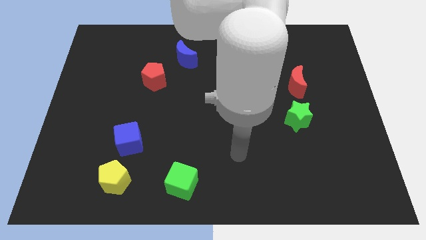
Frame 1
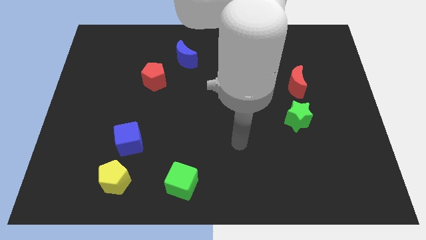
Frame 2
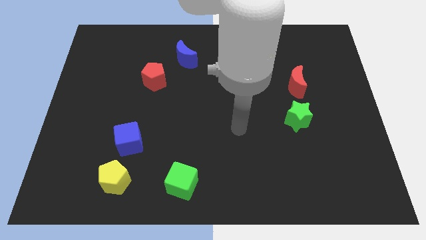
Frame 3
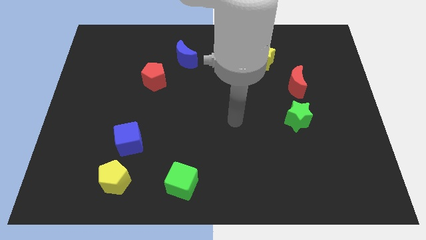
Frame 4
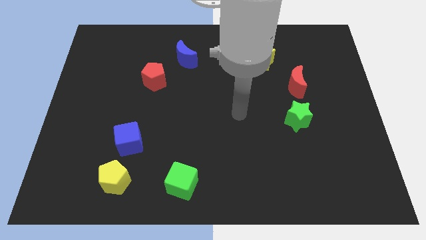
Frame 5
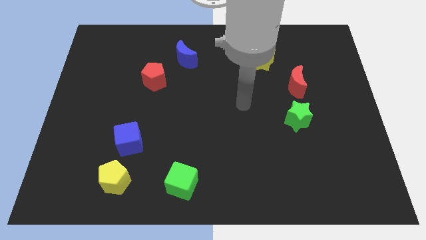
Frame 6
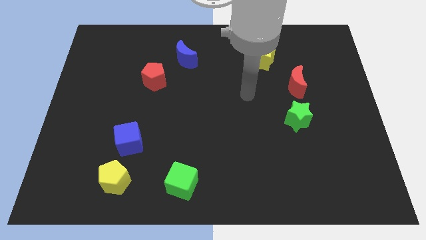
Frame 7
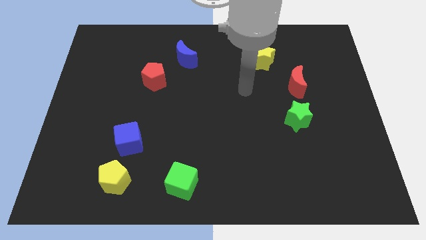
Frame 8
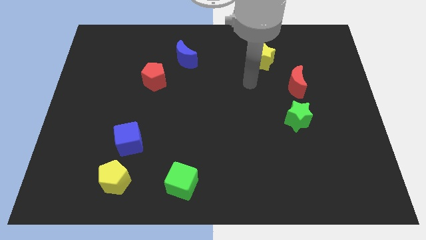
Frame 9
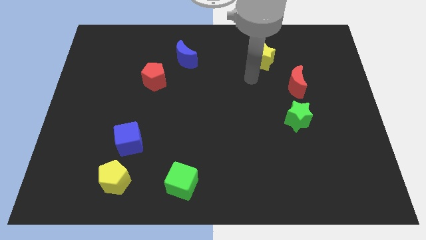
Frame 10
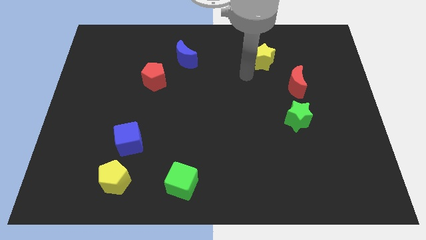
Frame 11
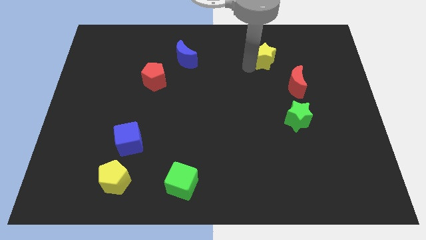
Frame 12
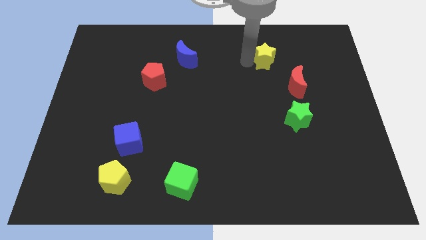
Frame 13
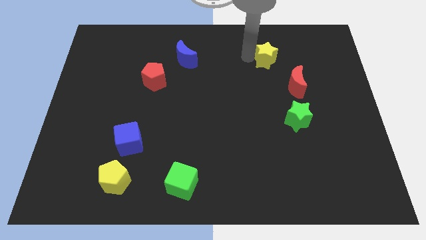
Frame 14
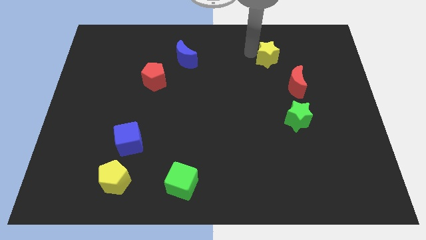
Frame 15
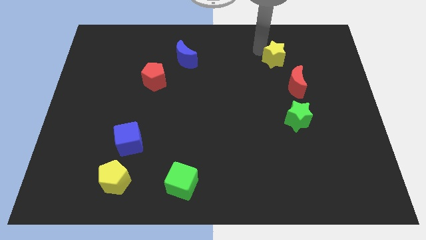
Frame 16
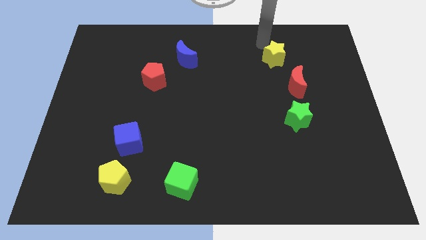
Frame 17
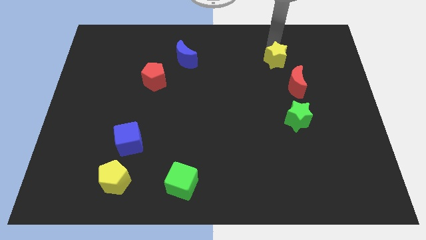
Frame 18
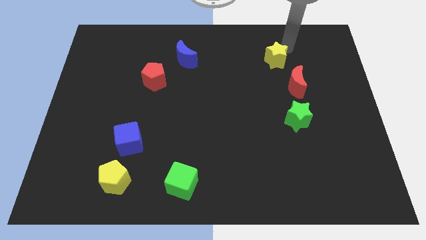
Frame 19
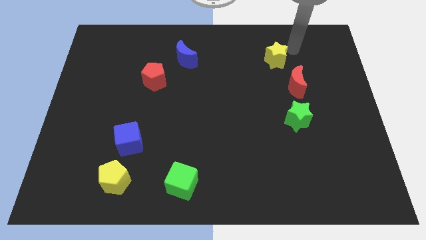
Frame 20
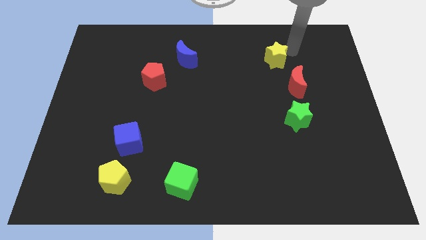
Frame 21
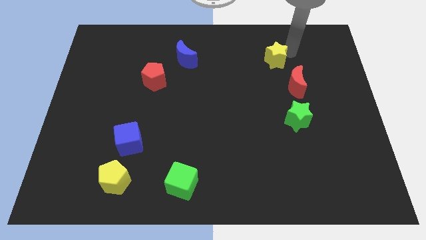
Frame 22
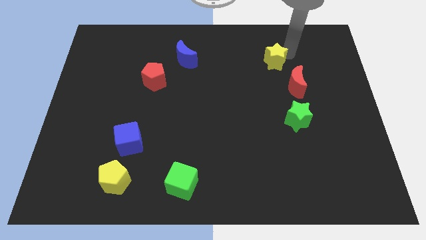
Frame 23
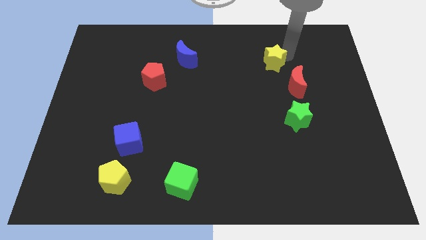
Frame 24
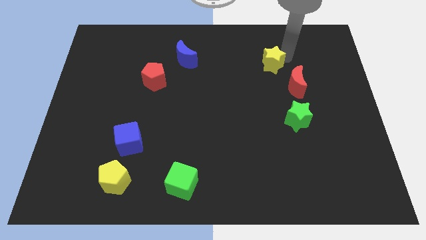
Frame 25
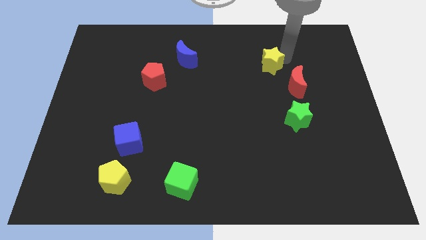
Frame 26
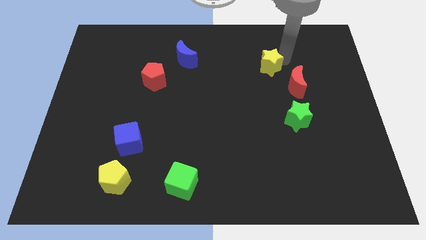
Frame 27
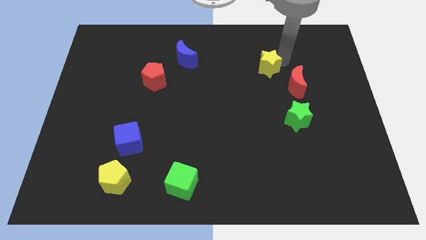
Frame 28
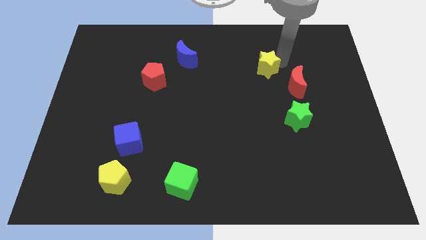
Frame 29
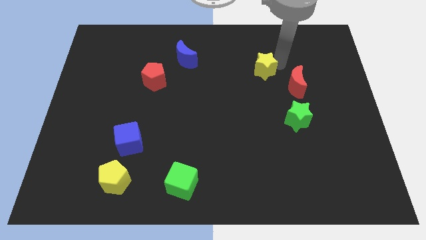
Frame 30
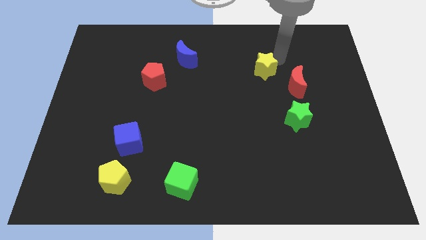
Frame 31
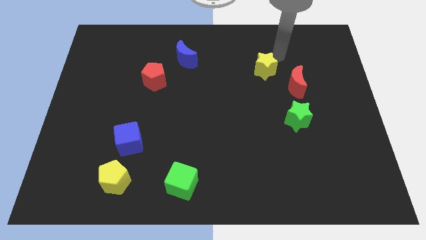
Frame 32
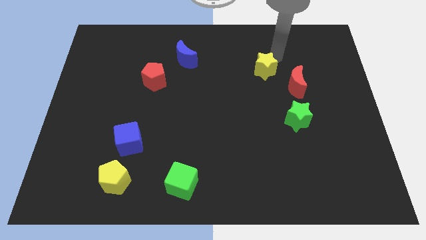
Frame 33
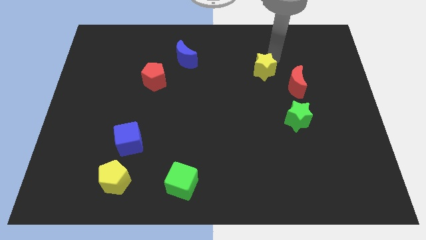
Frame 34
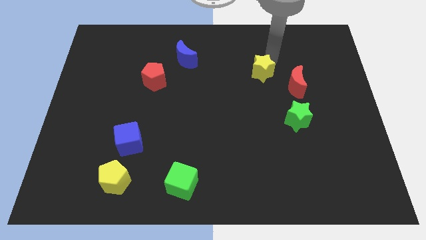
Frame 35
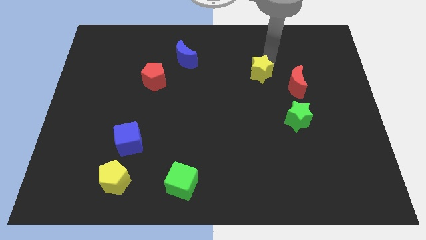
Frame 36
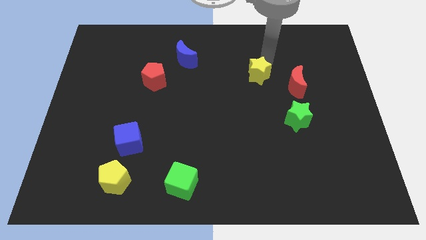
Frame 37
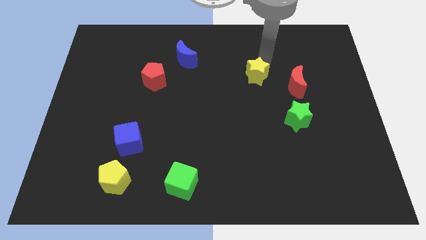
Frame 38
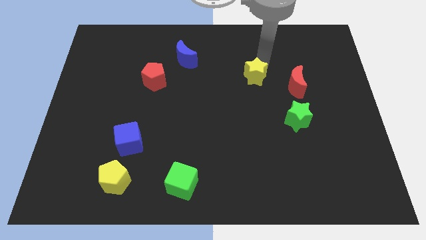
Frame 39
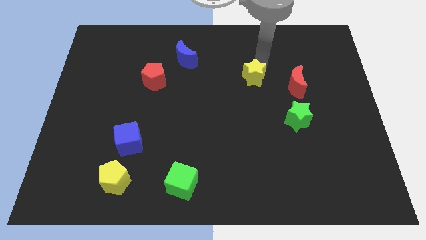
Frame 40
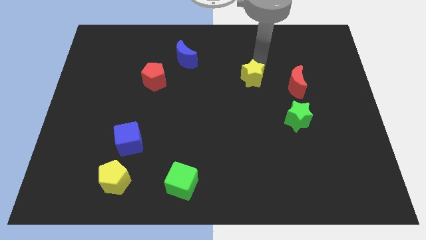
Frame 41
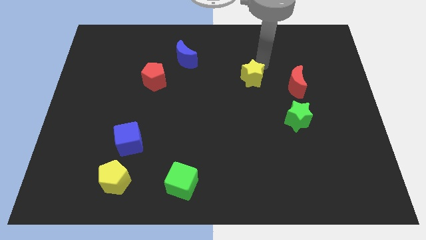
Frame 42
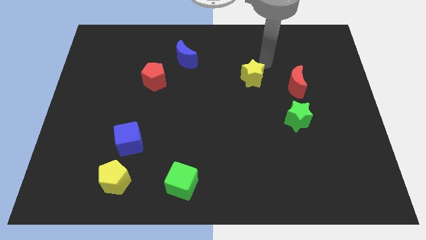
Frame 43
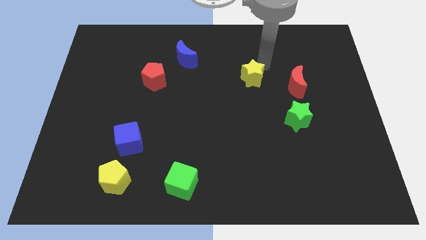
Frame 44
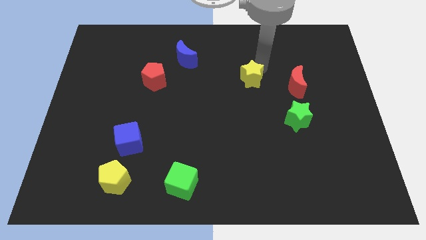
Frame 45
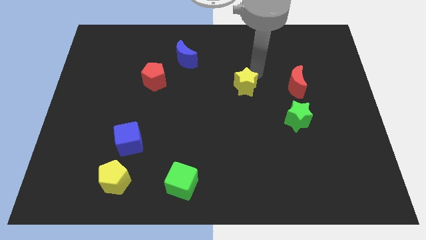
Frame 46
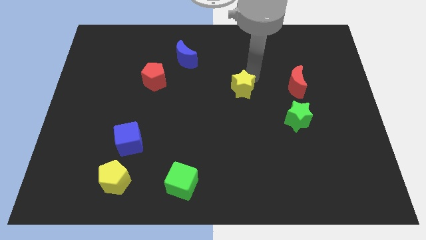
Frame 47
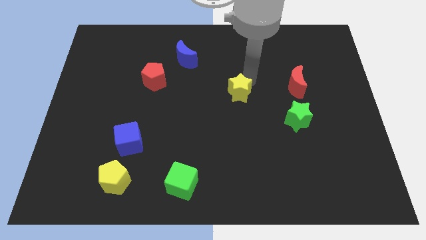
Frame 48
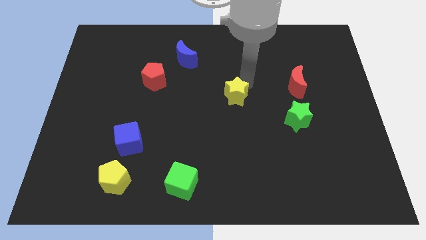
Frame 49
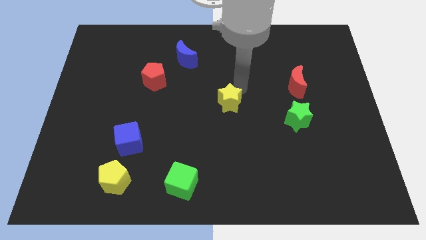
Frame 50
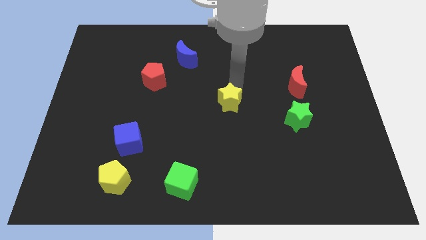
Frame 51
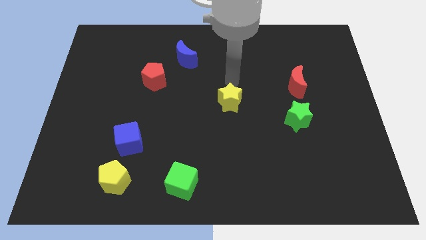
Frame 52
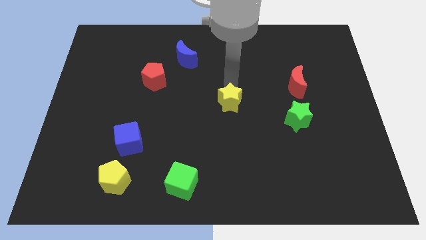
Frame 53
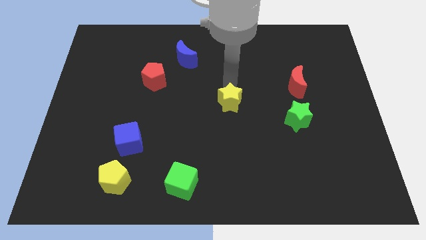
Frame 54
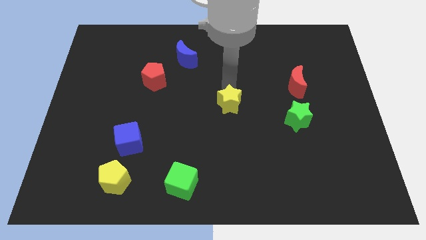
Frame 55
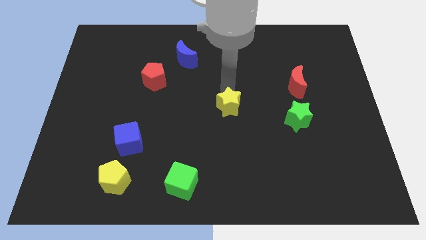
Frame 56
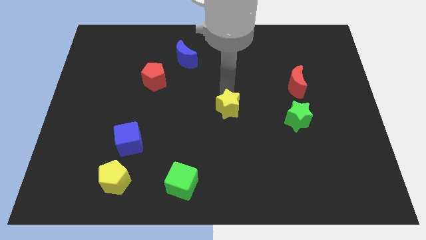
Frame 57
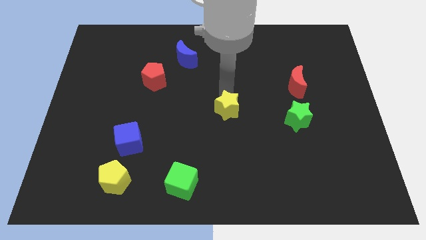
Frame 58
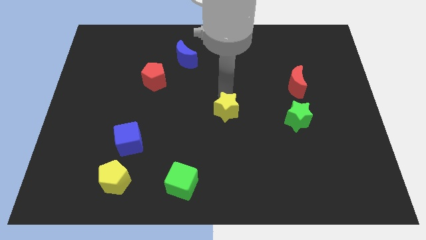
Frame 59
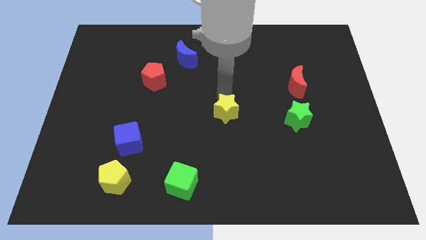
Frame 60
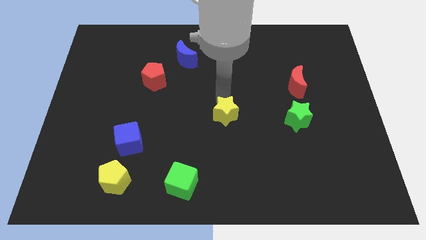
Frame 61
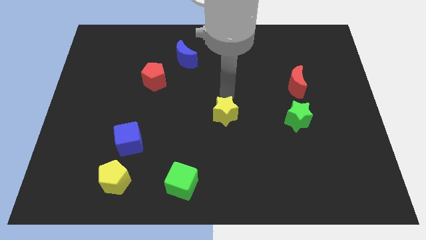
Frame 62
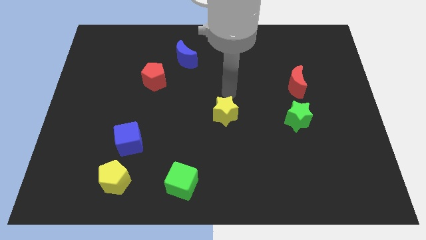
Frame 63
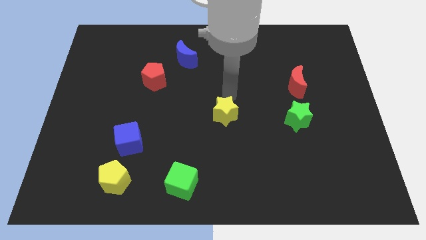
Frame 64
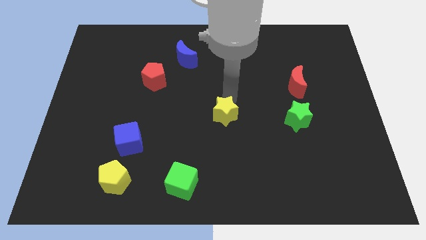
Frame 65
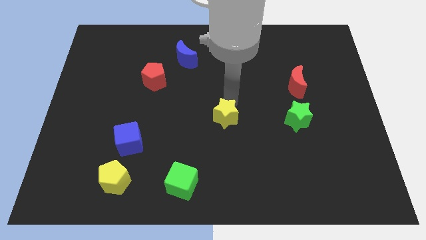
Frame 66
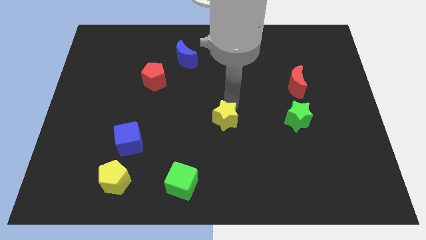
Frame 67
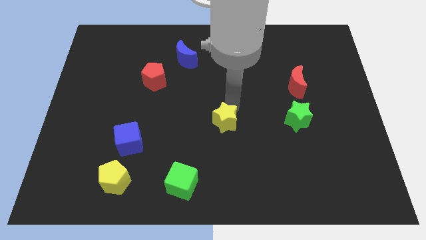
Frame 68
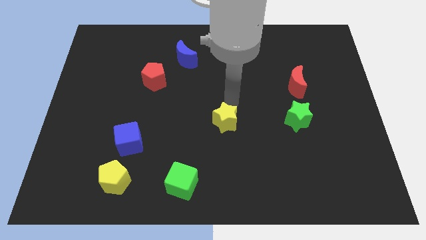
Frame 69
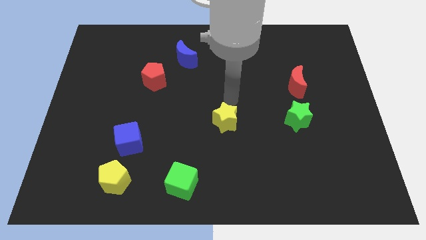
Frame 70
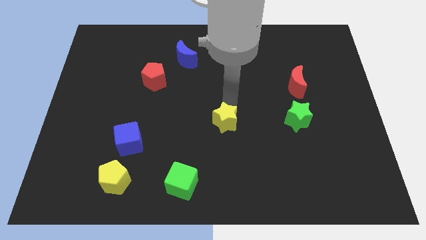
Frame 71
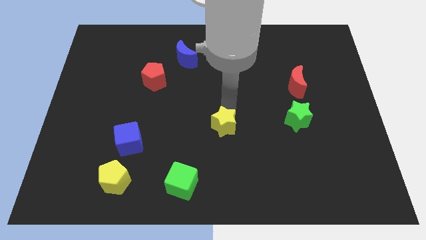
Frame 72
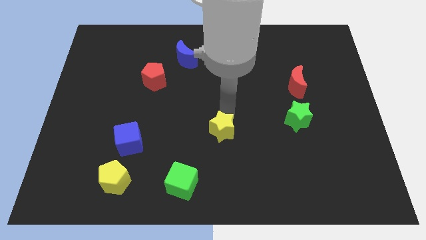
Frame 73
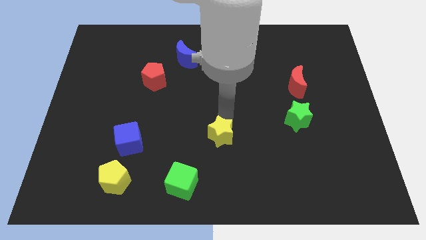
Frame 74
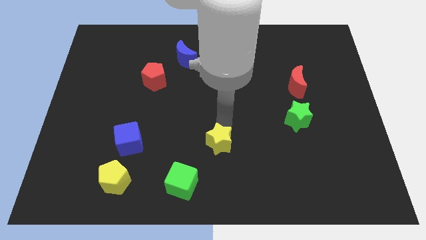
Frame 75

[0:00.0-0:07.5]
put the yellow star diagonally up and to the right of the green cube
